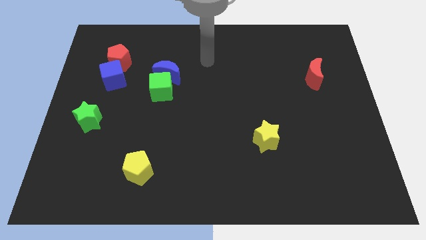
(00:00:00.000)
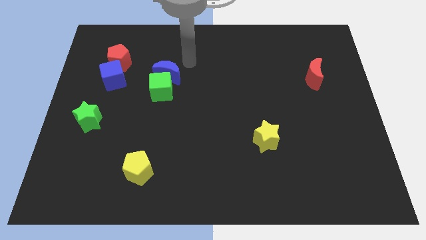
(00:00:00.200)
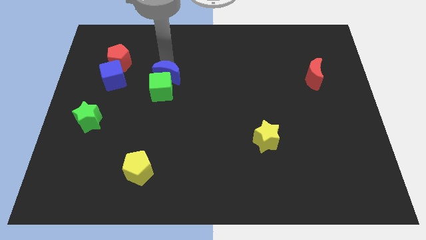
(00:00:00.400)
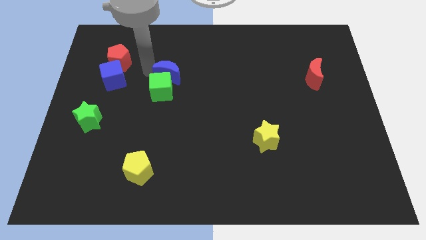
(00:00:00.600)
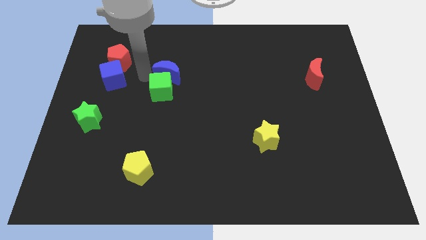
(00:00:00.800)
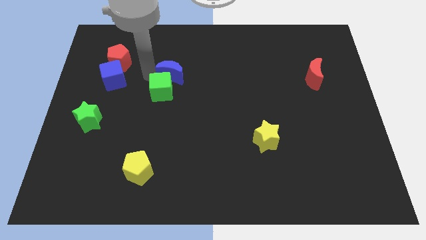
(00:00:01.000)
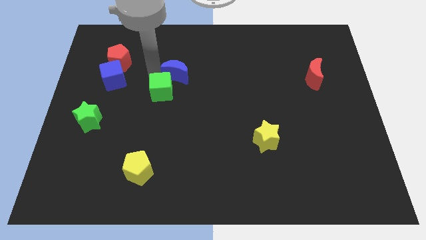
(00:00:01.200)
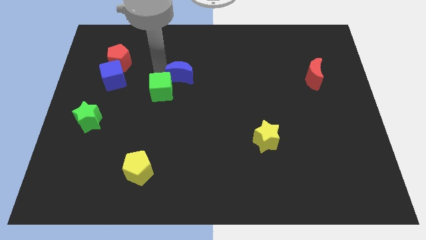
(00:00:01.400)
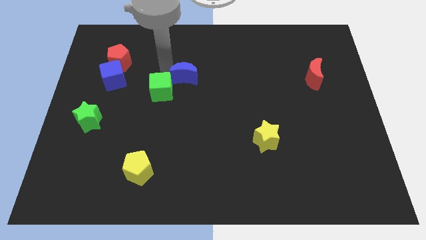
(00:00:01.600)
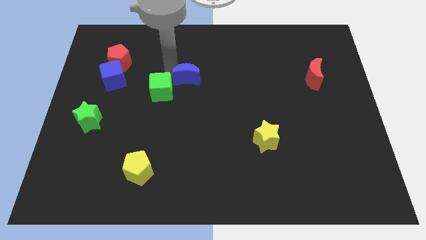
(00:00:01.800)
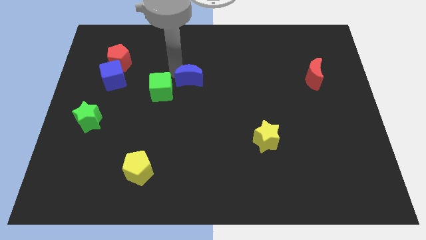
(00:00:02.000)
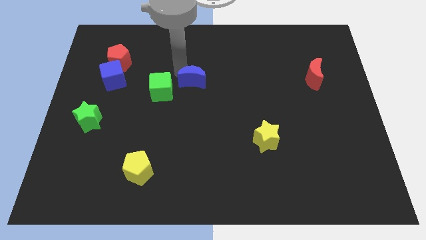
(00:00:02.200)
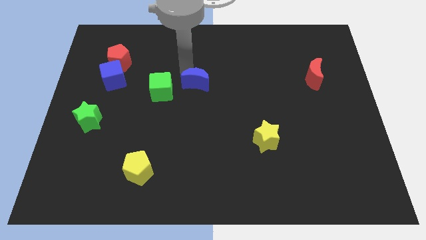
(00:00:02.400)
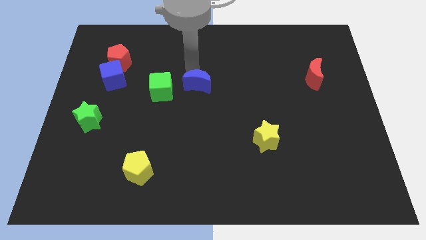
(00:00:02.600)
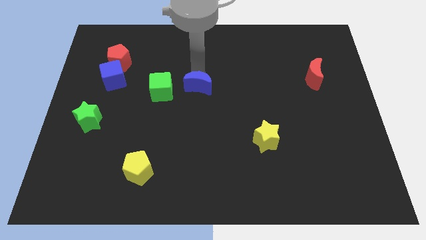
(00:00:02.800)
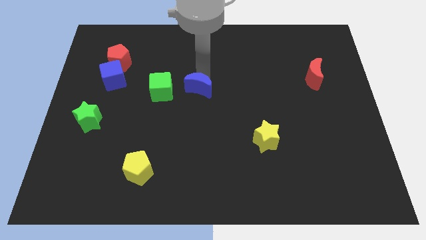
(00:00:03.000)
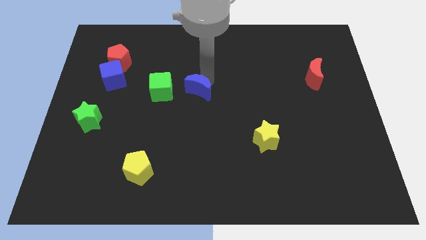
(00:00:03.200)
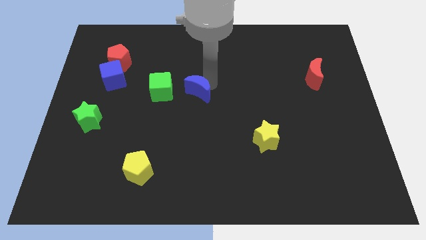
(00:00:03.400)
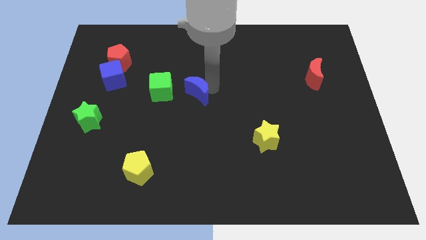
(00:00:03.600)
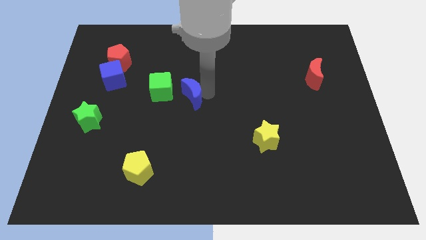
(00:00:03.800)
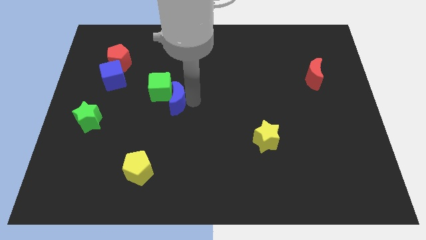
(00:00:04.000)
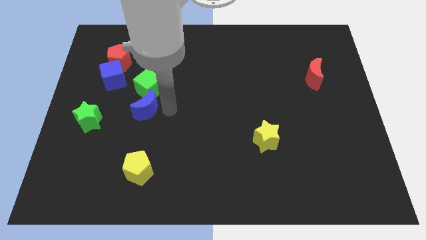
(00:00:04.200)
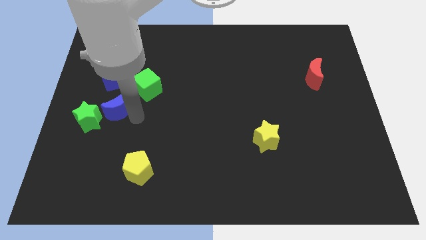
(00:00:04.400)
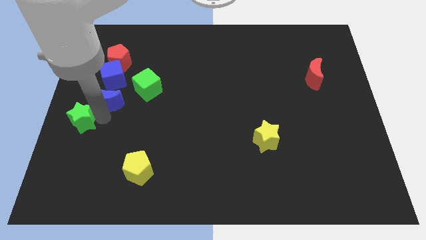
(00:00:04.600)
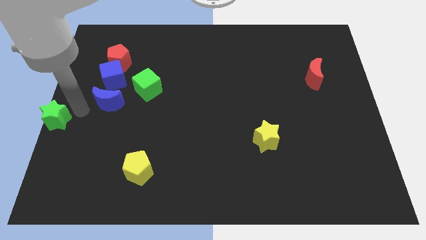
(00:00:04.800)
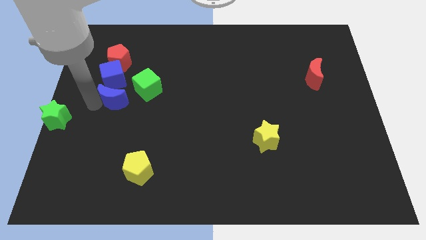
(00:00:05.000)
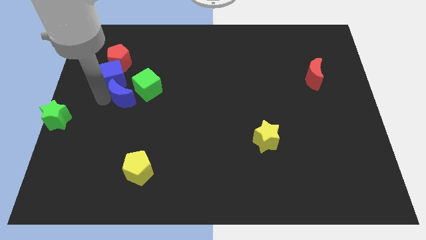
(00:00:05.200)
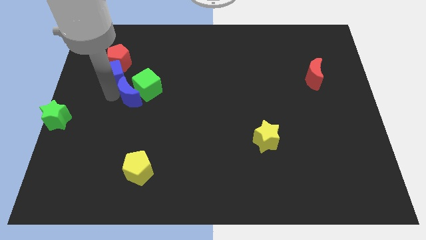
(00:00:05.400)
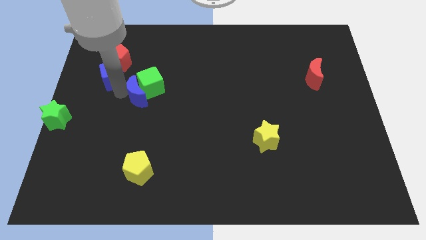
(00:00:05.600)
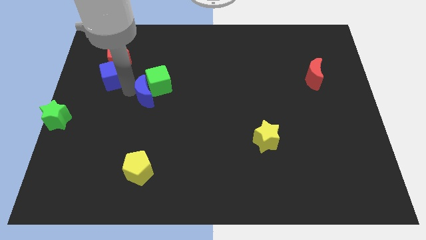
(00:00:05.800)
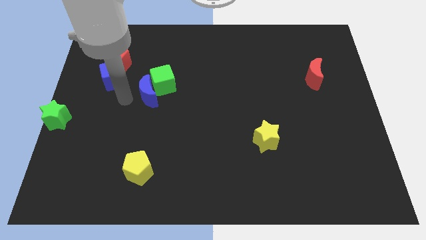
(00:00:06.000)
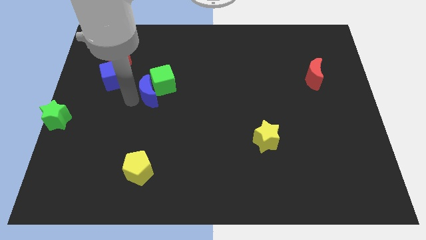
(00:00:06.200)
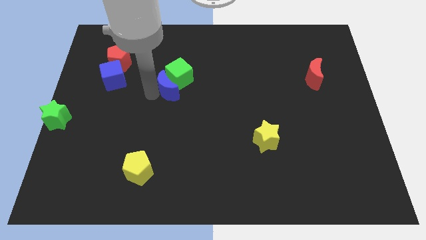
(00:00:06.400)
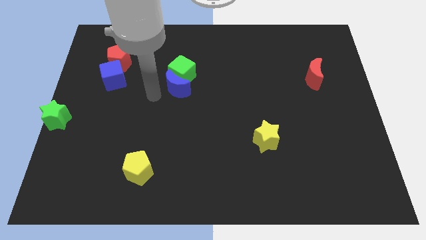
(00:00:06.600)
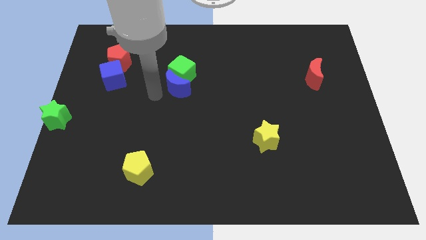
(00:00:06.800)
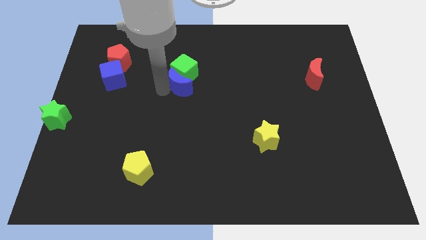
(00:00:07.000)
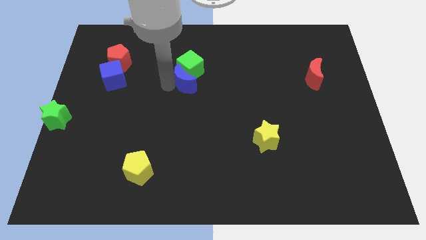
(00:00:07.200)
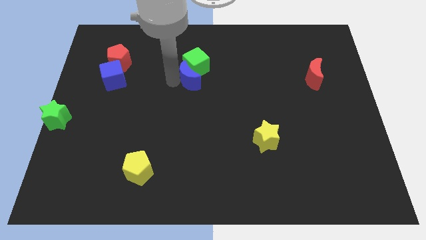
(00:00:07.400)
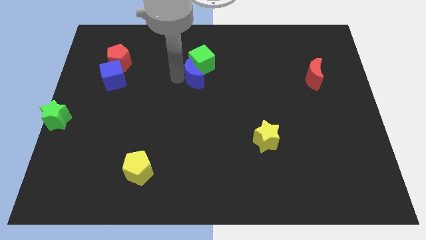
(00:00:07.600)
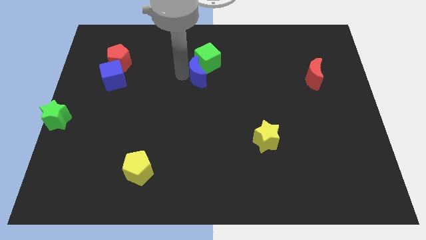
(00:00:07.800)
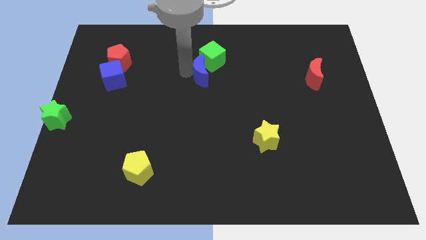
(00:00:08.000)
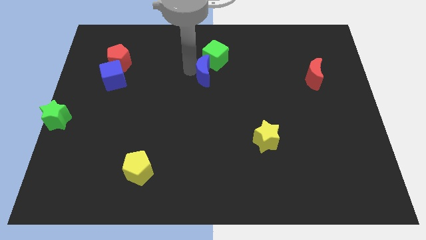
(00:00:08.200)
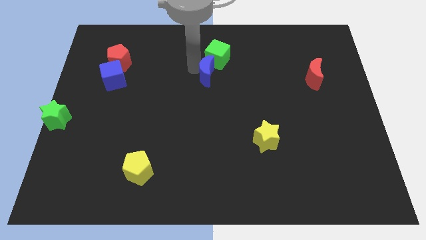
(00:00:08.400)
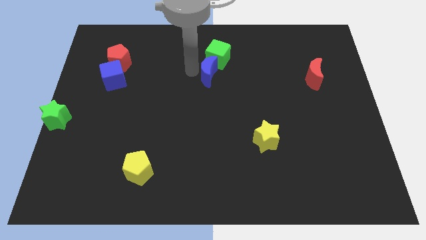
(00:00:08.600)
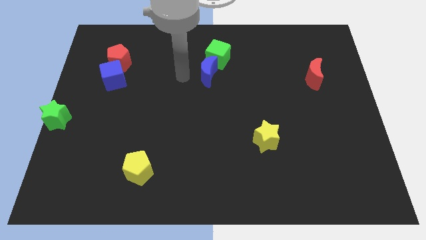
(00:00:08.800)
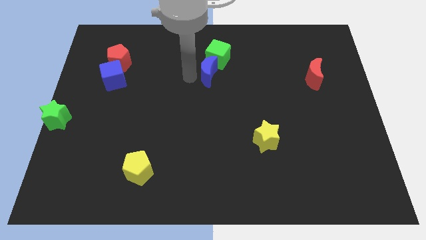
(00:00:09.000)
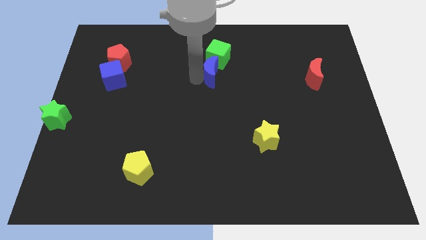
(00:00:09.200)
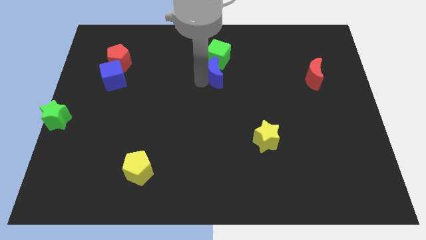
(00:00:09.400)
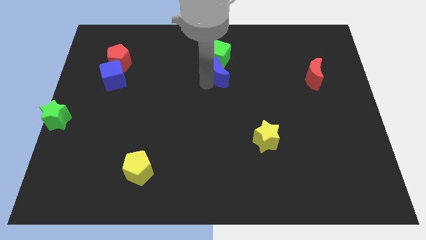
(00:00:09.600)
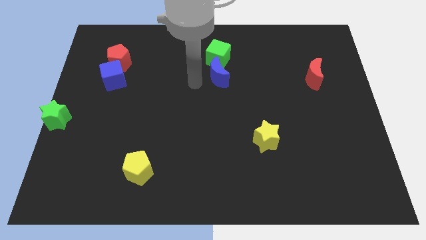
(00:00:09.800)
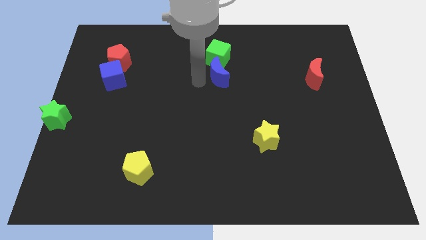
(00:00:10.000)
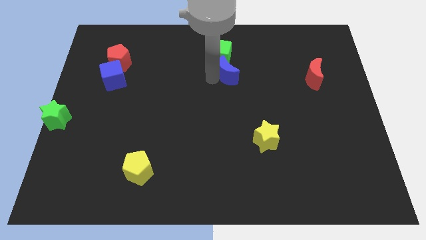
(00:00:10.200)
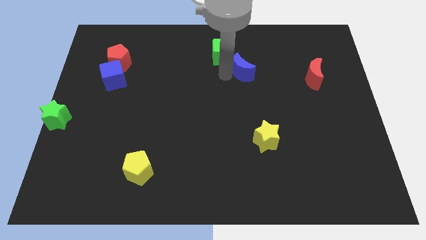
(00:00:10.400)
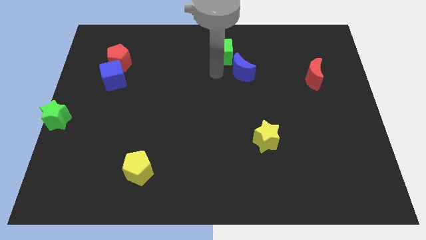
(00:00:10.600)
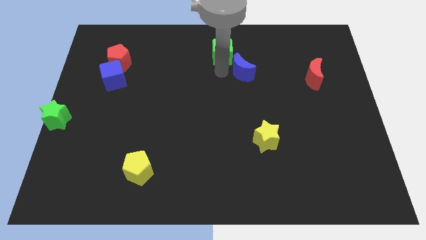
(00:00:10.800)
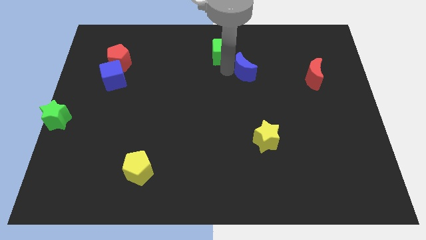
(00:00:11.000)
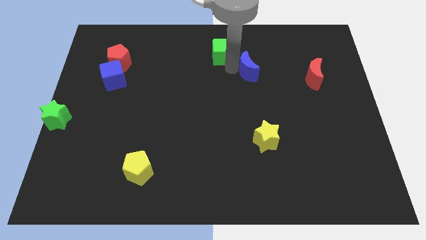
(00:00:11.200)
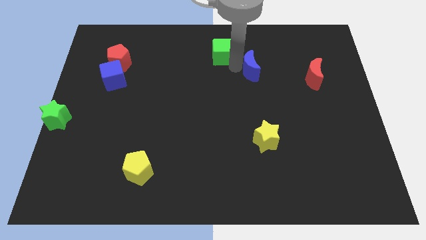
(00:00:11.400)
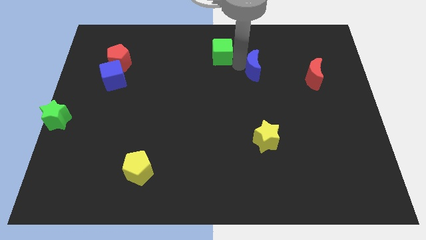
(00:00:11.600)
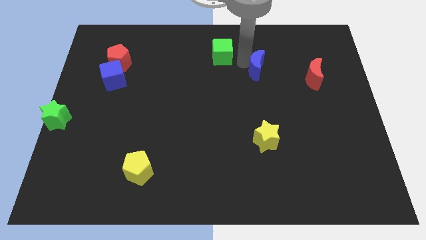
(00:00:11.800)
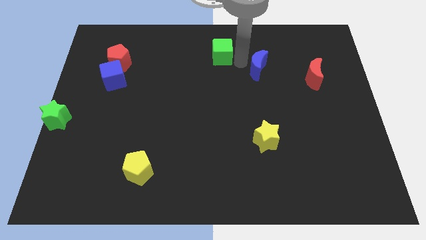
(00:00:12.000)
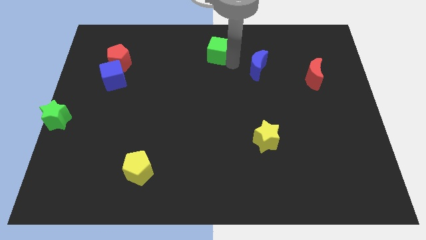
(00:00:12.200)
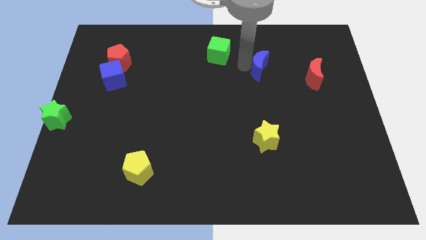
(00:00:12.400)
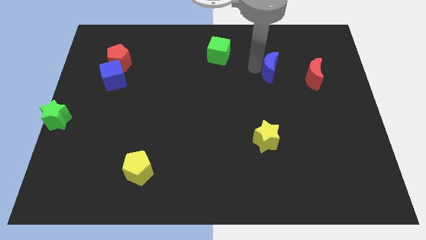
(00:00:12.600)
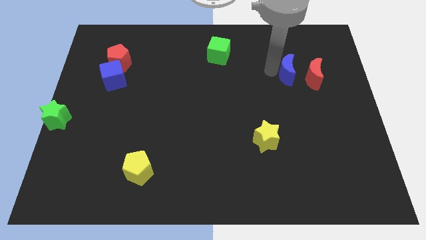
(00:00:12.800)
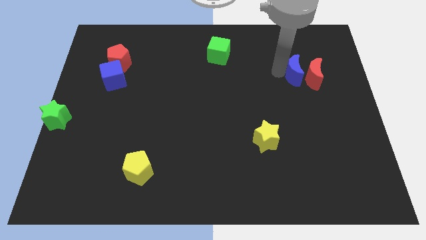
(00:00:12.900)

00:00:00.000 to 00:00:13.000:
put the blue moon towards the red moon

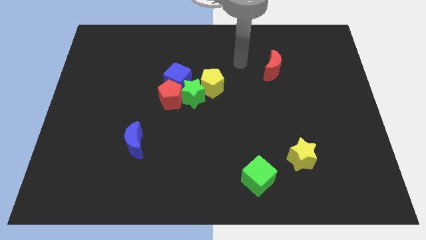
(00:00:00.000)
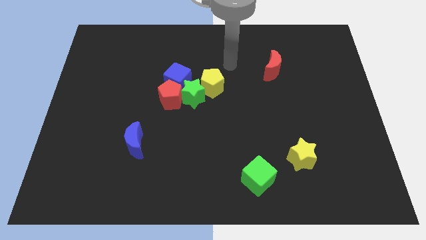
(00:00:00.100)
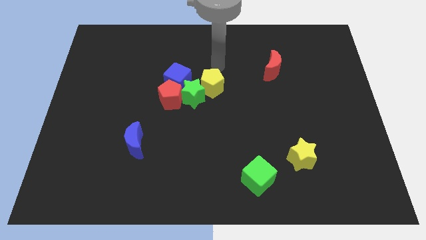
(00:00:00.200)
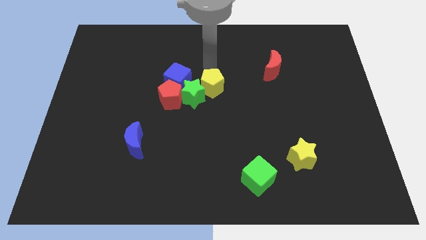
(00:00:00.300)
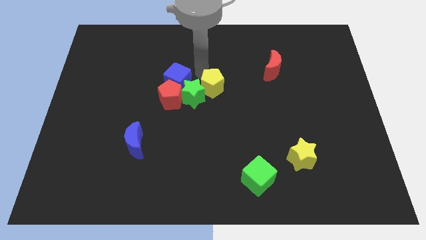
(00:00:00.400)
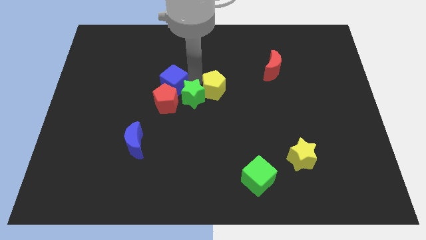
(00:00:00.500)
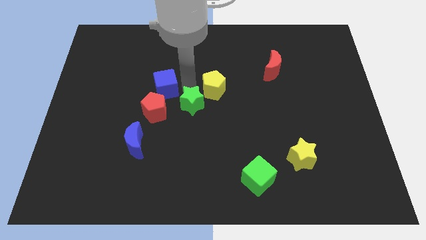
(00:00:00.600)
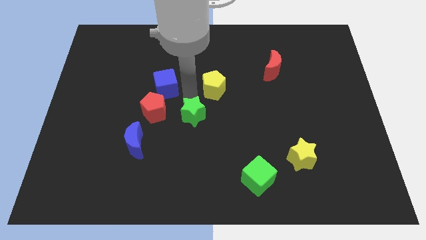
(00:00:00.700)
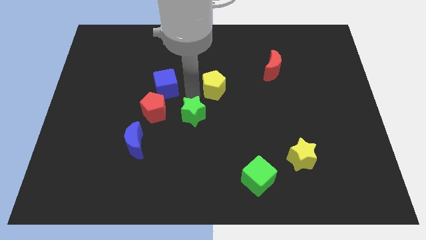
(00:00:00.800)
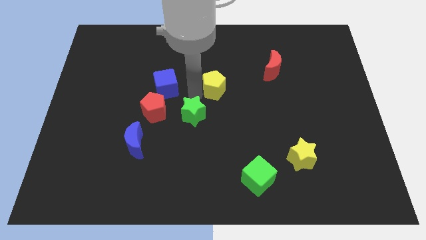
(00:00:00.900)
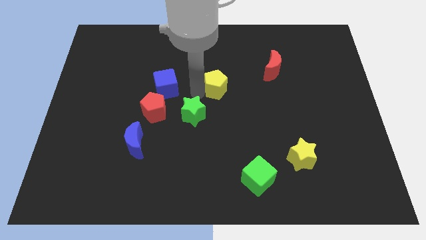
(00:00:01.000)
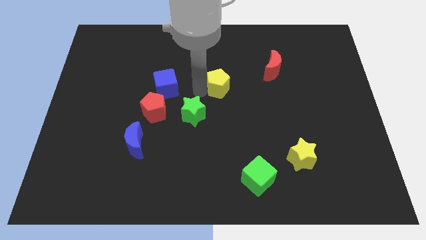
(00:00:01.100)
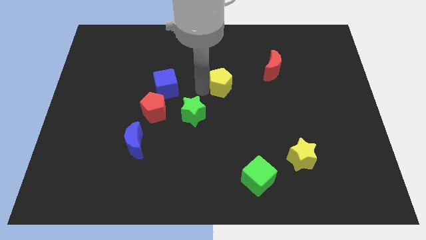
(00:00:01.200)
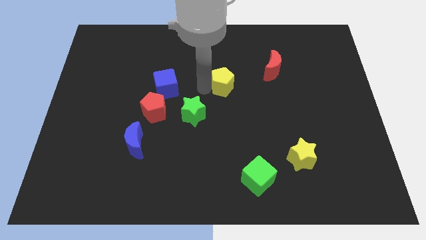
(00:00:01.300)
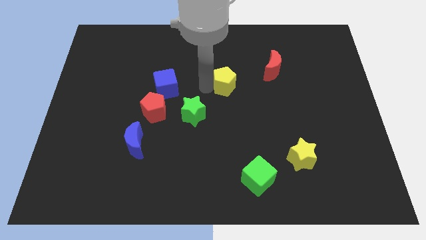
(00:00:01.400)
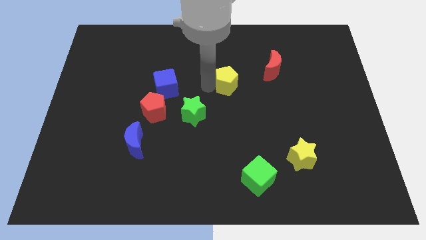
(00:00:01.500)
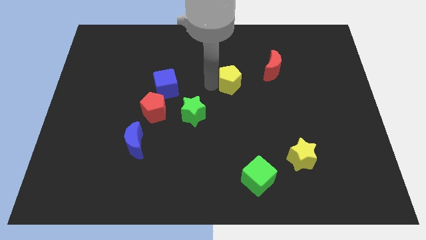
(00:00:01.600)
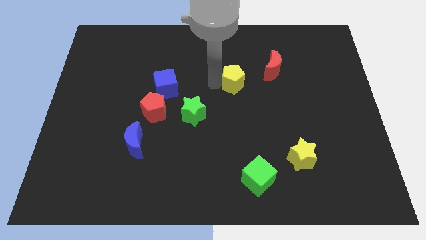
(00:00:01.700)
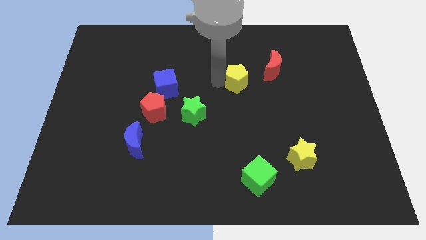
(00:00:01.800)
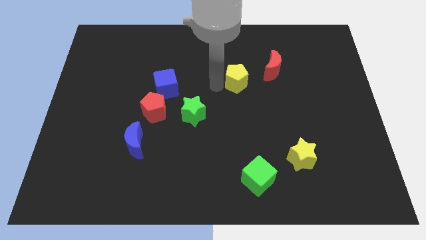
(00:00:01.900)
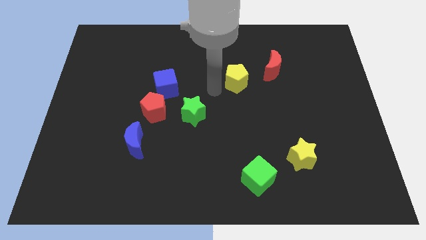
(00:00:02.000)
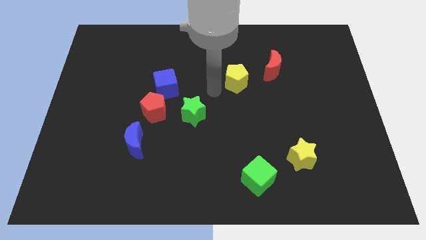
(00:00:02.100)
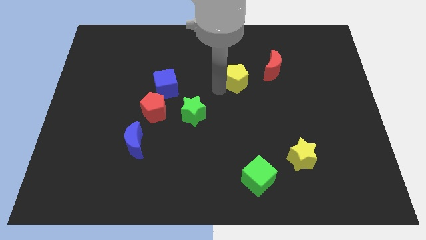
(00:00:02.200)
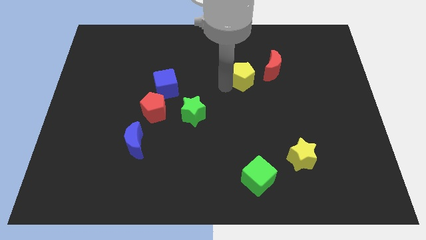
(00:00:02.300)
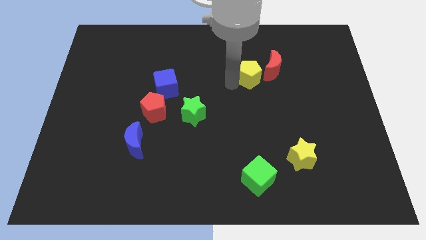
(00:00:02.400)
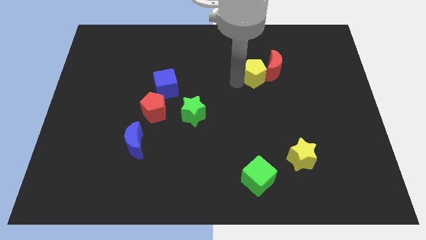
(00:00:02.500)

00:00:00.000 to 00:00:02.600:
push the yellow pentagon next to the red moon
